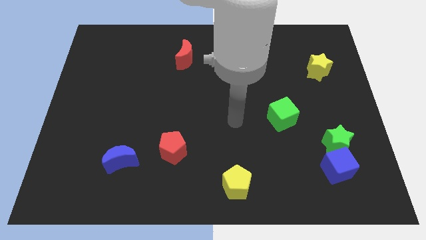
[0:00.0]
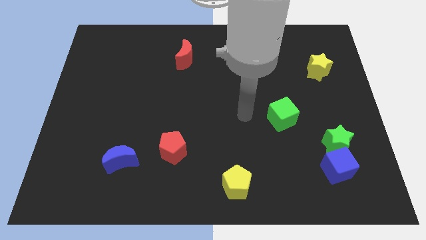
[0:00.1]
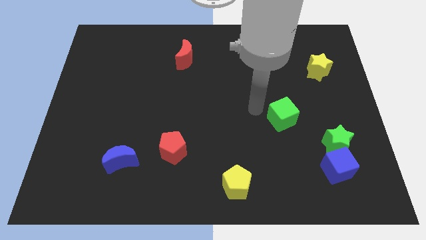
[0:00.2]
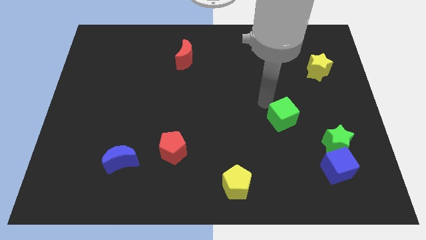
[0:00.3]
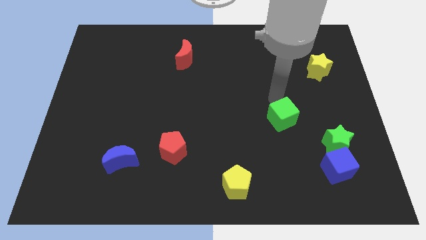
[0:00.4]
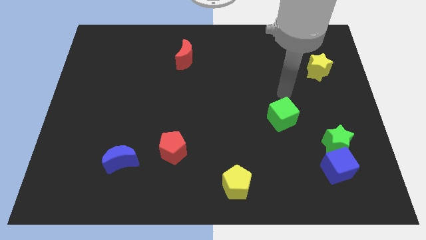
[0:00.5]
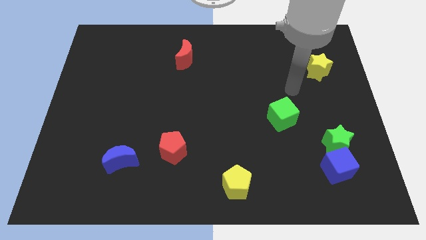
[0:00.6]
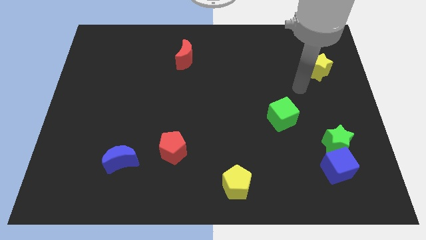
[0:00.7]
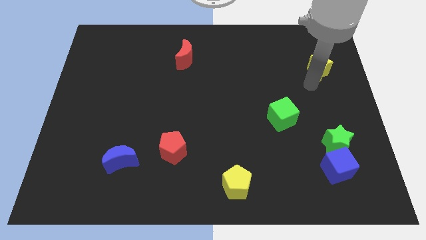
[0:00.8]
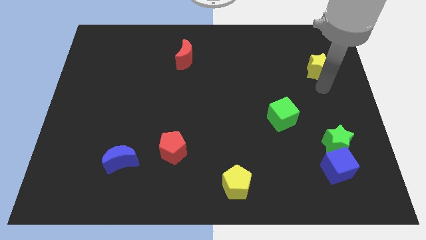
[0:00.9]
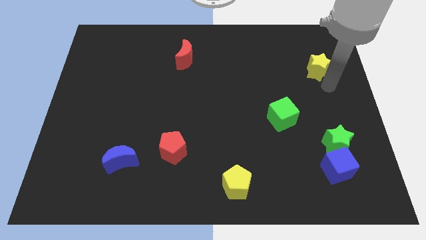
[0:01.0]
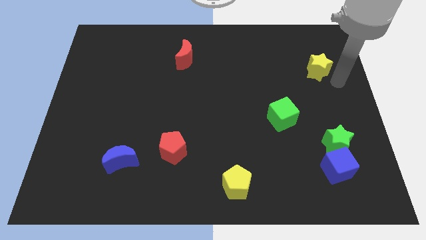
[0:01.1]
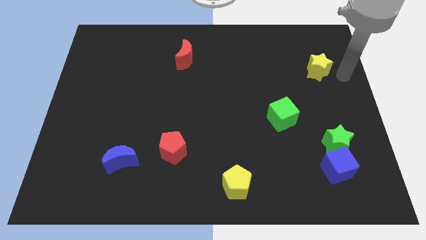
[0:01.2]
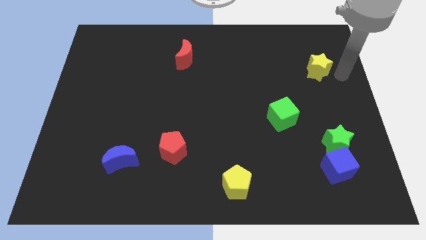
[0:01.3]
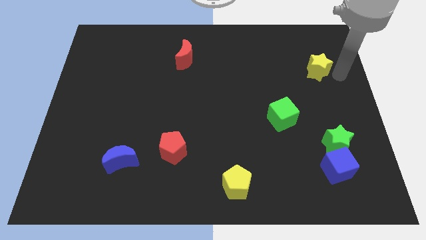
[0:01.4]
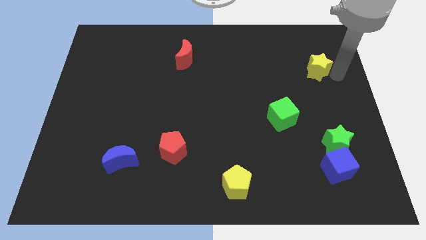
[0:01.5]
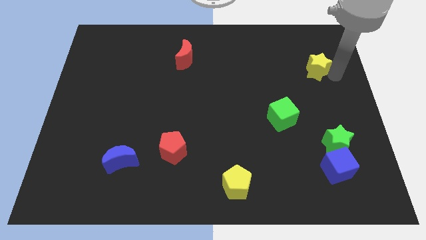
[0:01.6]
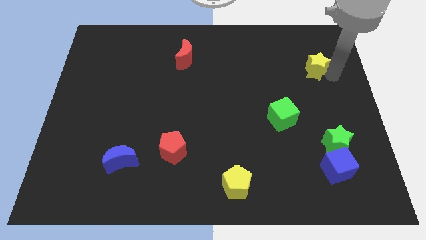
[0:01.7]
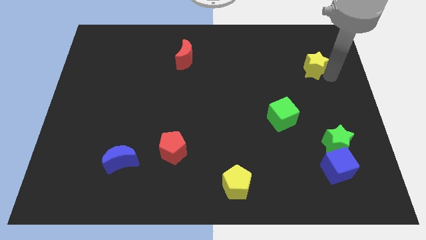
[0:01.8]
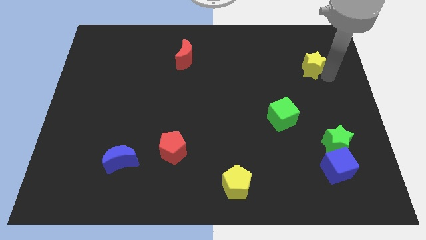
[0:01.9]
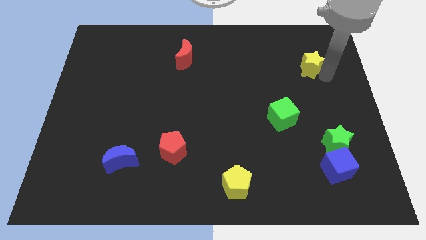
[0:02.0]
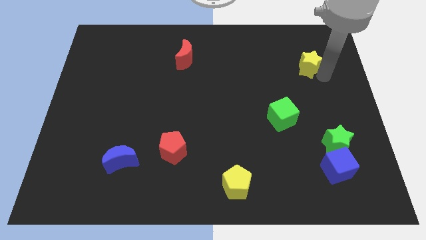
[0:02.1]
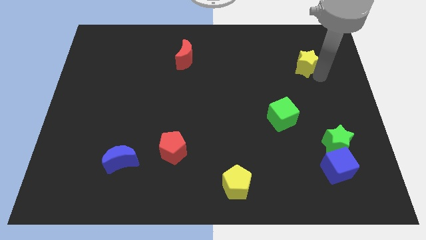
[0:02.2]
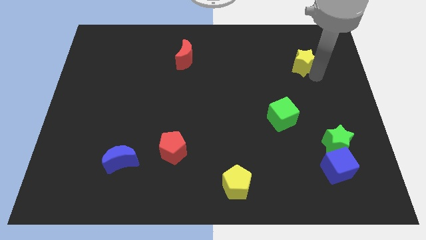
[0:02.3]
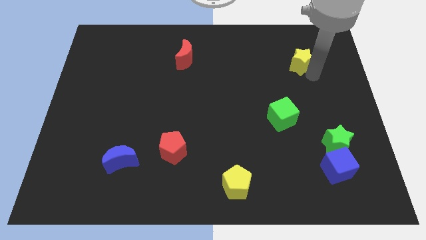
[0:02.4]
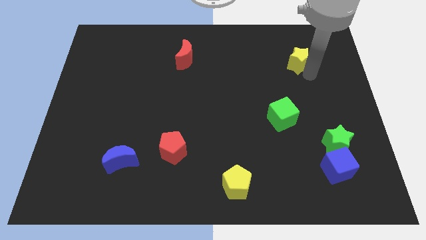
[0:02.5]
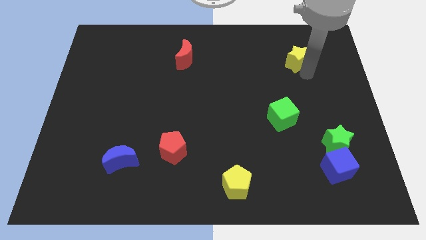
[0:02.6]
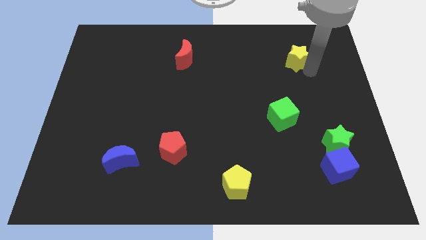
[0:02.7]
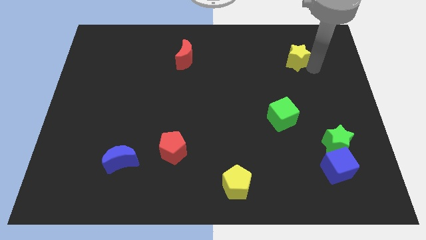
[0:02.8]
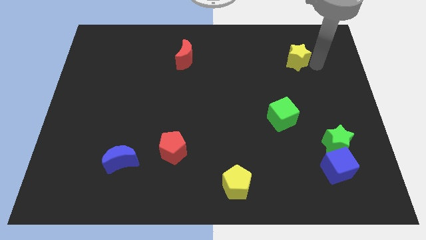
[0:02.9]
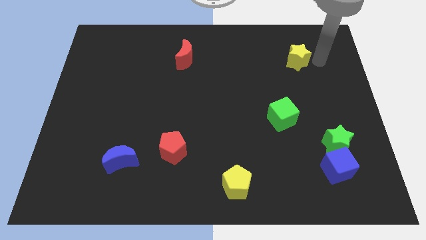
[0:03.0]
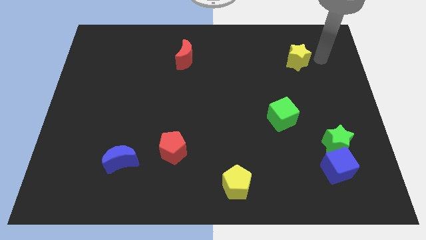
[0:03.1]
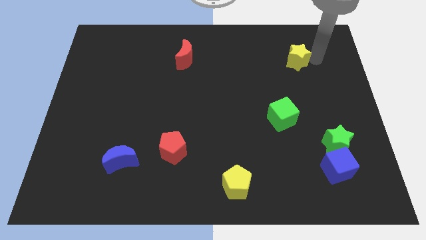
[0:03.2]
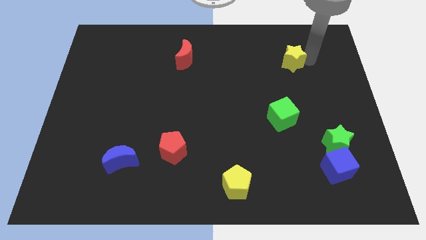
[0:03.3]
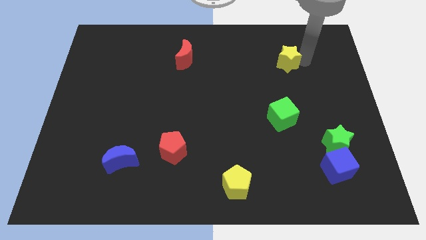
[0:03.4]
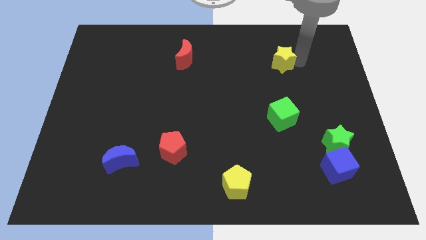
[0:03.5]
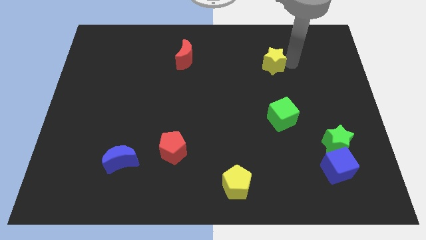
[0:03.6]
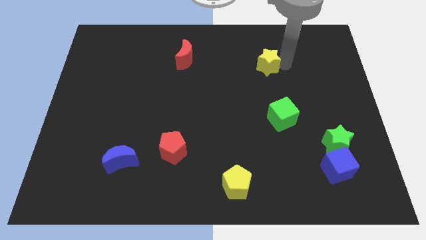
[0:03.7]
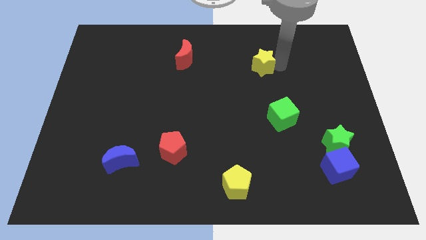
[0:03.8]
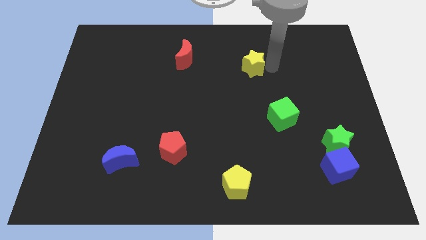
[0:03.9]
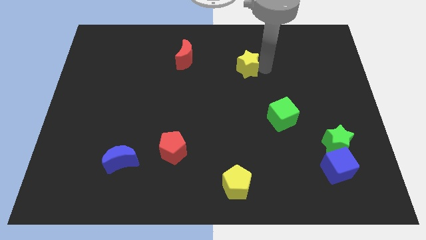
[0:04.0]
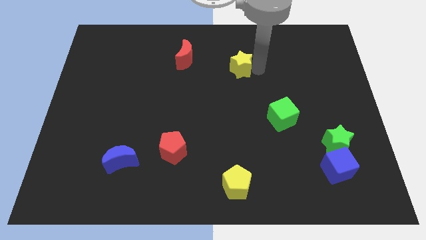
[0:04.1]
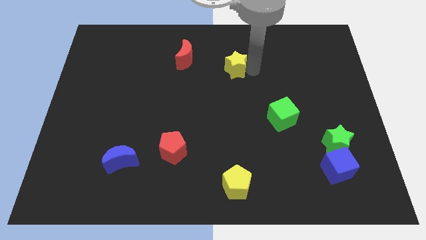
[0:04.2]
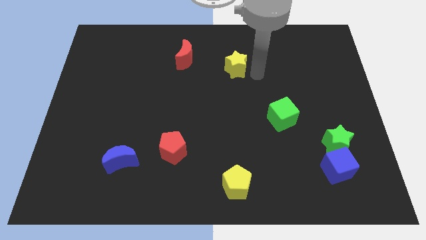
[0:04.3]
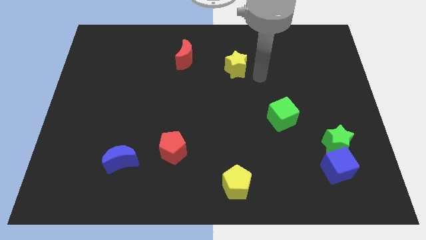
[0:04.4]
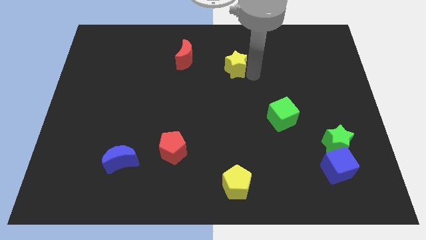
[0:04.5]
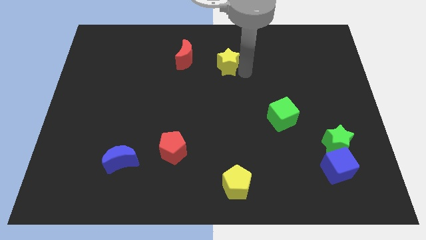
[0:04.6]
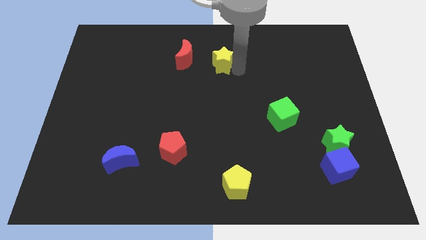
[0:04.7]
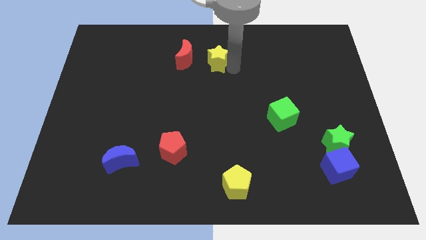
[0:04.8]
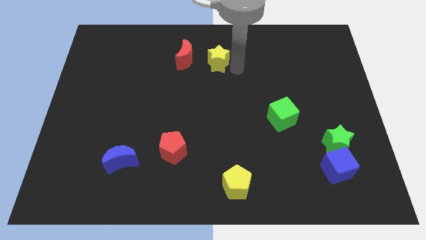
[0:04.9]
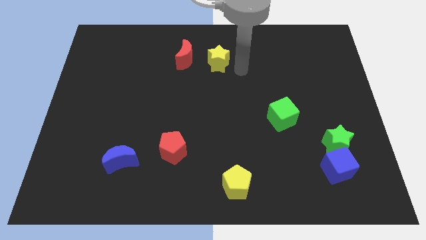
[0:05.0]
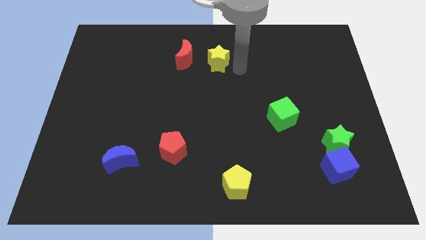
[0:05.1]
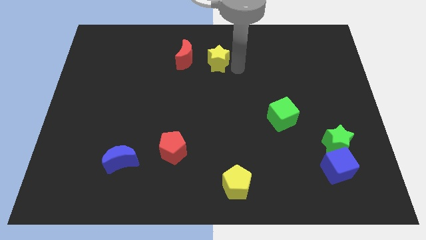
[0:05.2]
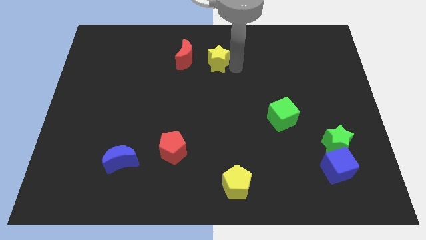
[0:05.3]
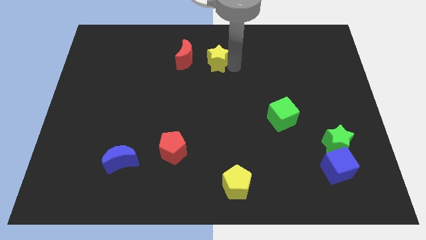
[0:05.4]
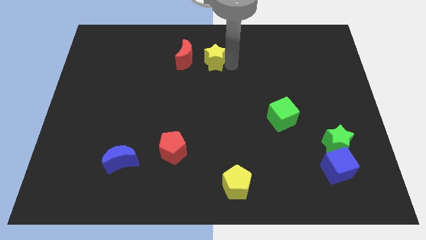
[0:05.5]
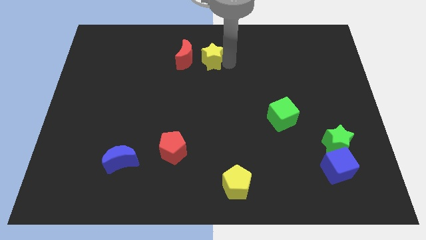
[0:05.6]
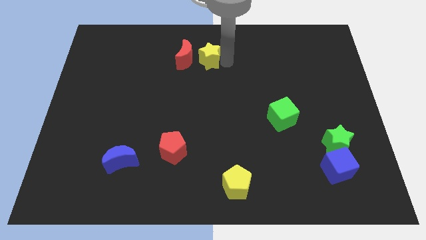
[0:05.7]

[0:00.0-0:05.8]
slide the yellow star close to the red moon

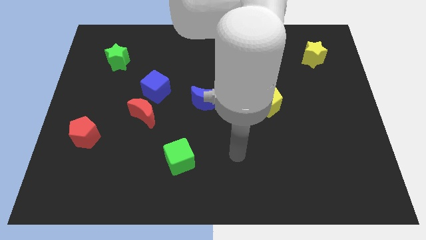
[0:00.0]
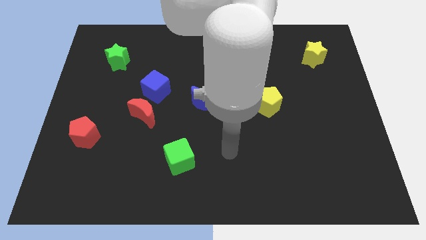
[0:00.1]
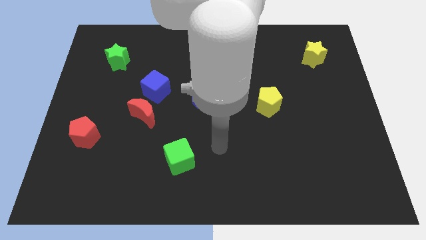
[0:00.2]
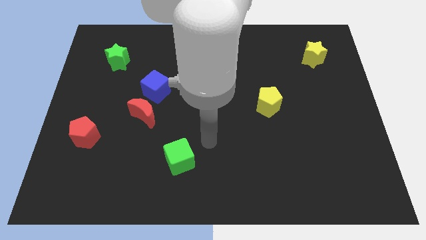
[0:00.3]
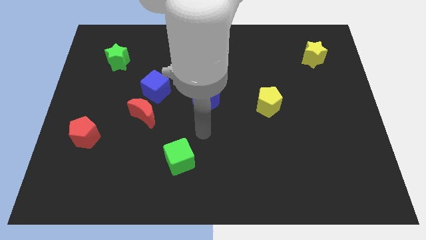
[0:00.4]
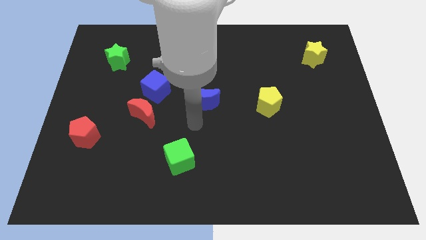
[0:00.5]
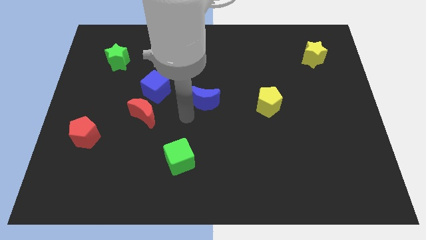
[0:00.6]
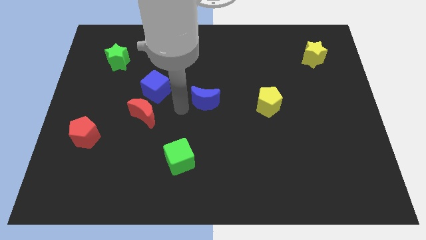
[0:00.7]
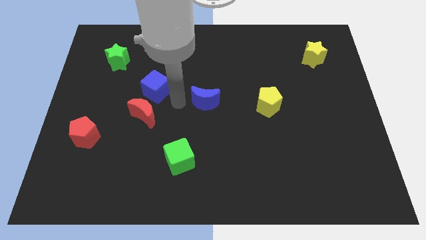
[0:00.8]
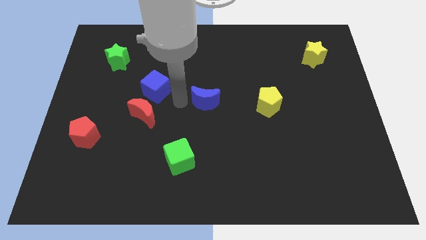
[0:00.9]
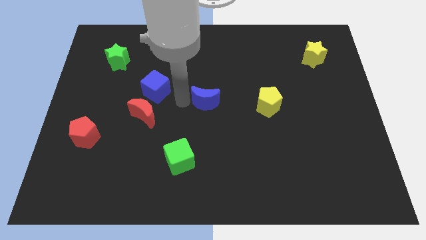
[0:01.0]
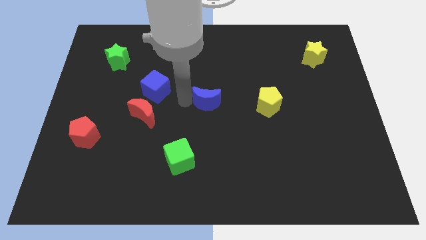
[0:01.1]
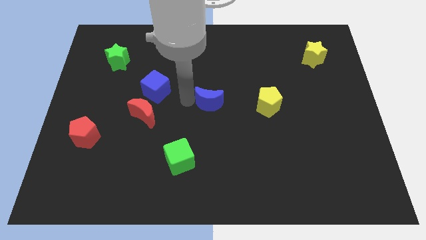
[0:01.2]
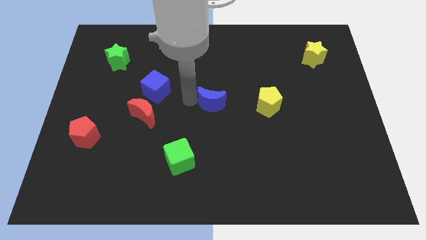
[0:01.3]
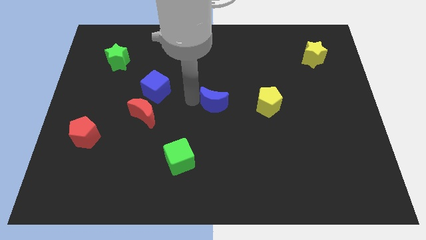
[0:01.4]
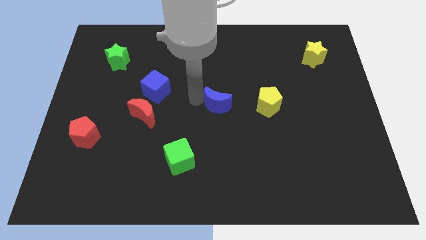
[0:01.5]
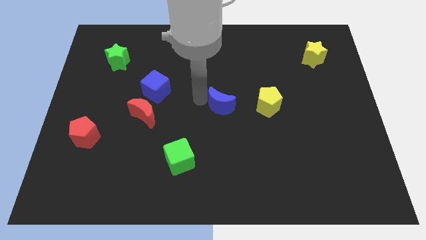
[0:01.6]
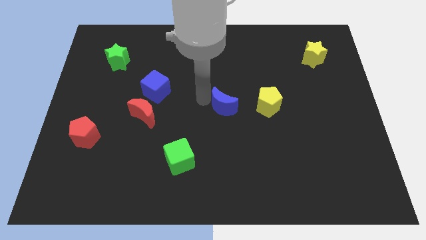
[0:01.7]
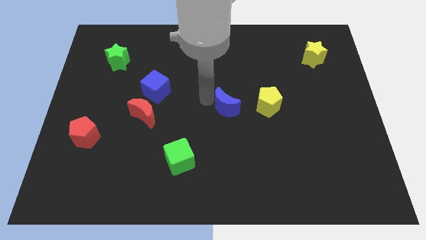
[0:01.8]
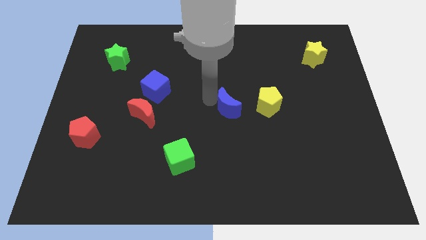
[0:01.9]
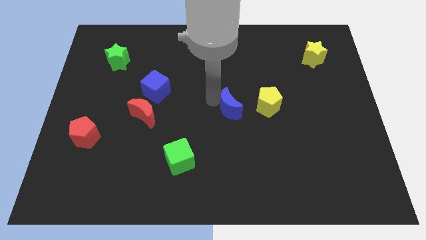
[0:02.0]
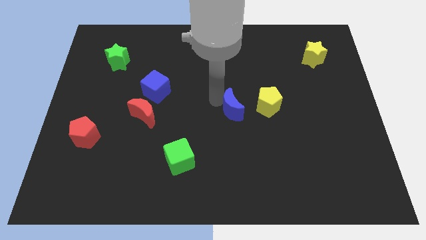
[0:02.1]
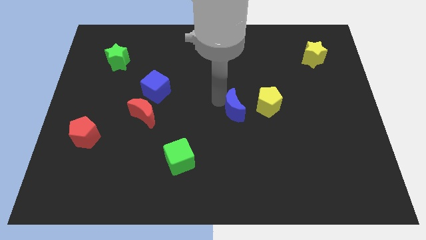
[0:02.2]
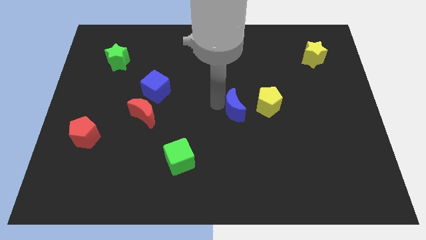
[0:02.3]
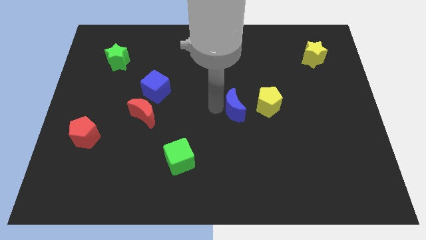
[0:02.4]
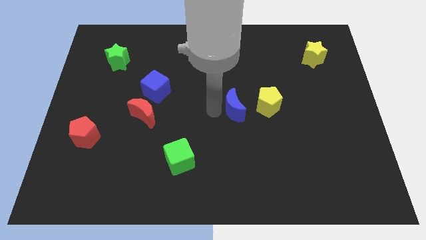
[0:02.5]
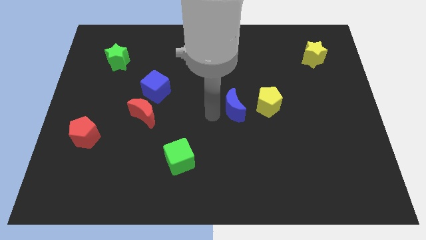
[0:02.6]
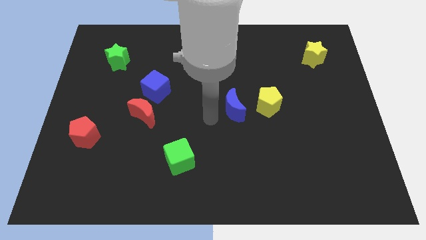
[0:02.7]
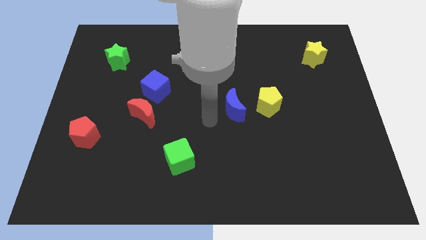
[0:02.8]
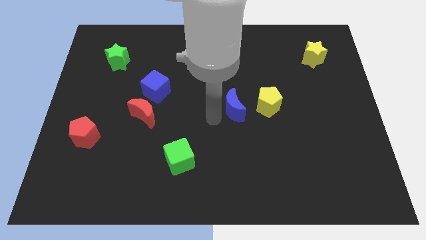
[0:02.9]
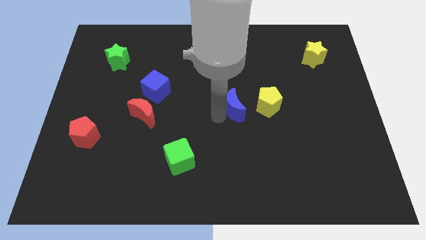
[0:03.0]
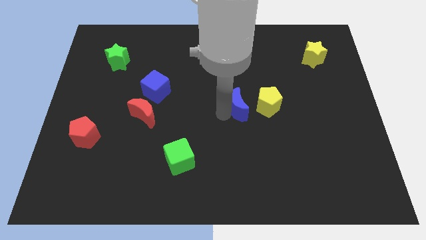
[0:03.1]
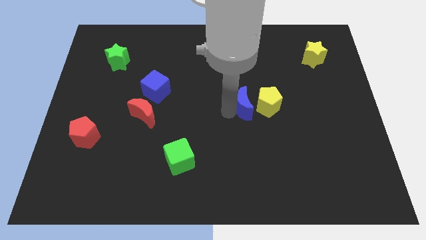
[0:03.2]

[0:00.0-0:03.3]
push the blue moon next to the yellow pentagon
